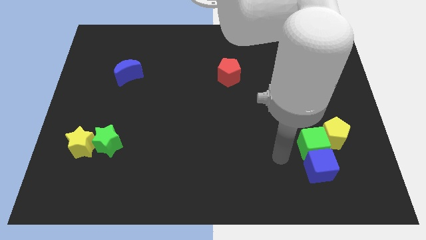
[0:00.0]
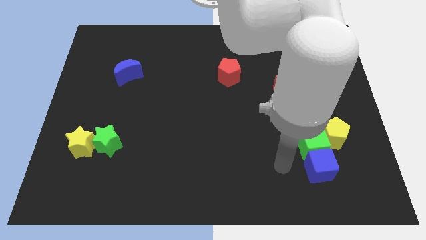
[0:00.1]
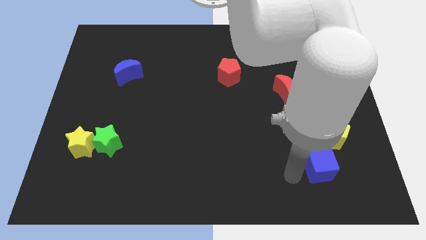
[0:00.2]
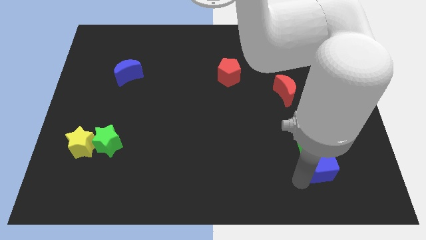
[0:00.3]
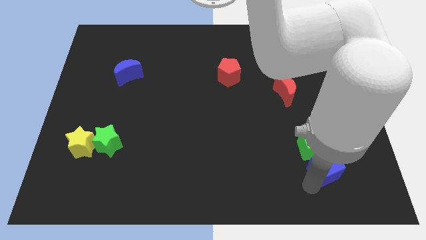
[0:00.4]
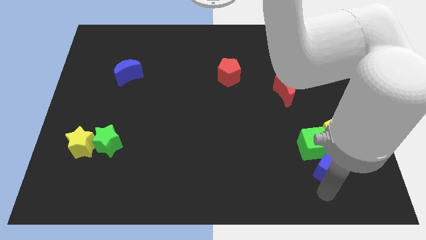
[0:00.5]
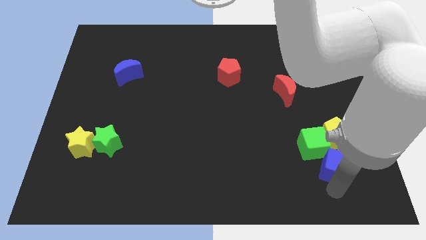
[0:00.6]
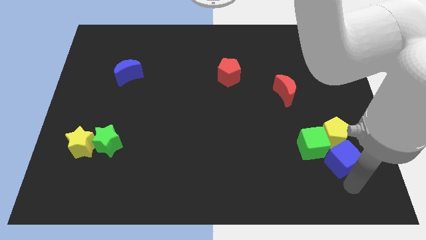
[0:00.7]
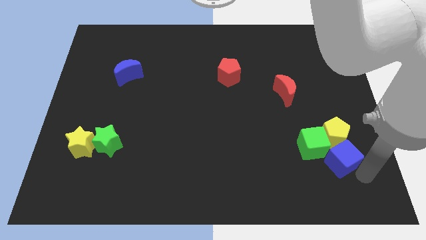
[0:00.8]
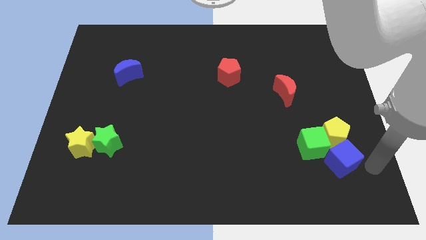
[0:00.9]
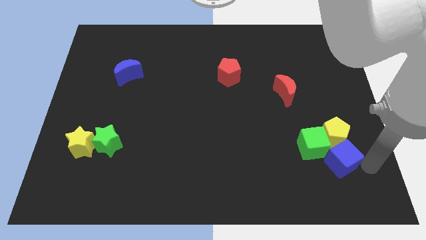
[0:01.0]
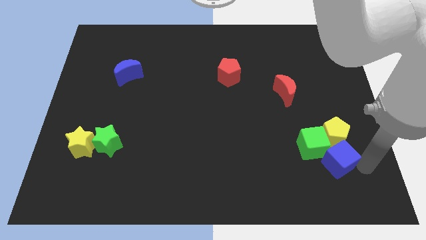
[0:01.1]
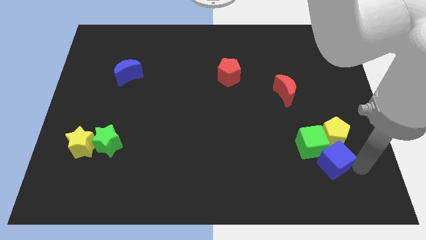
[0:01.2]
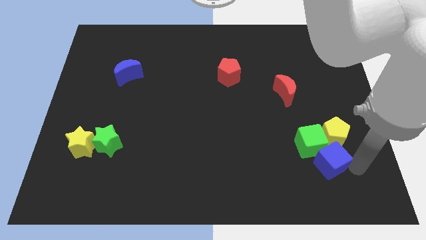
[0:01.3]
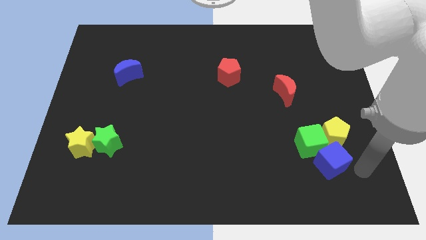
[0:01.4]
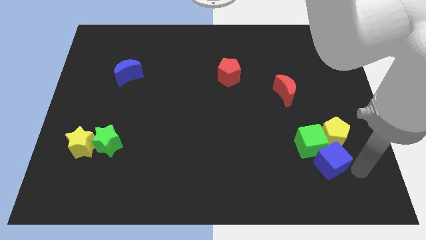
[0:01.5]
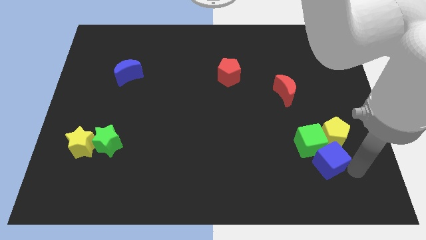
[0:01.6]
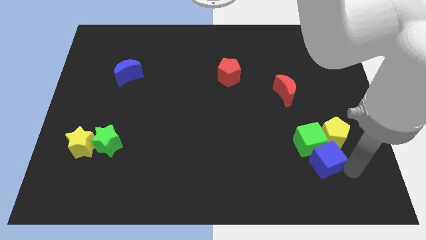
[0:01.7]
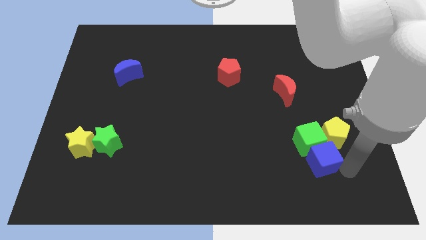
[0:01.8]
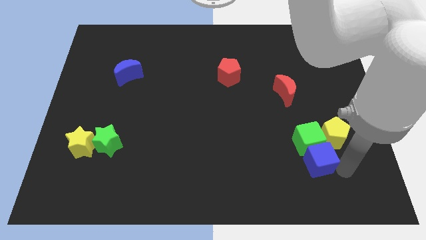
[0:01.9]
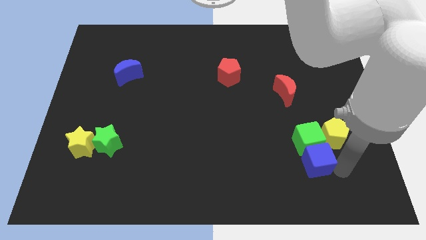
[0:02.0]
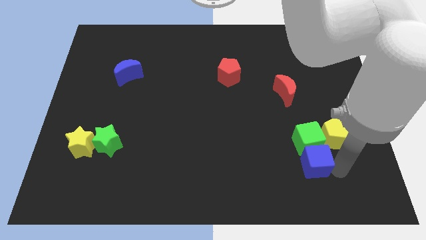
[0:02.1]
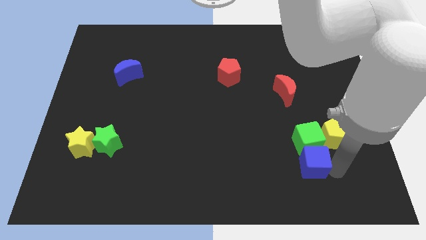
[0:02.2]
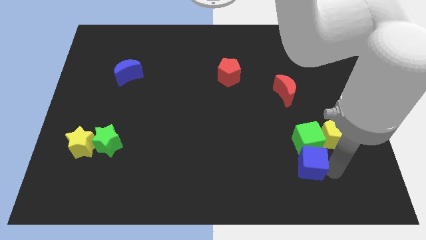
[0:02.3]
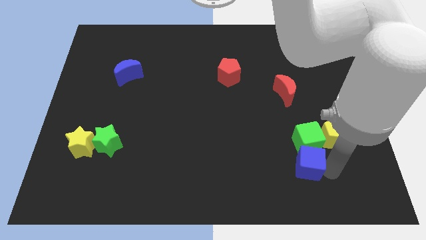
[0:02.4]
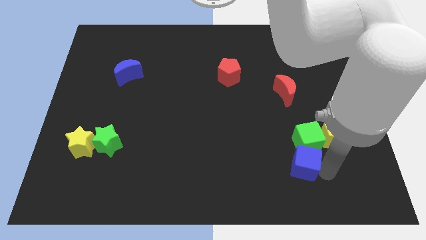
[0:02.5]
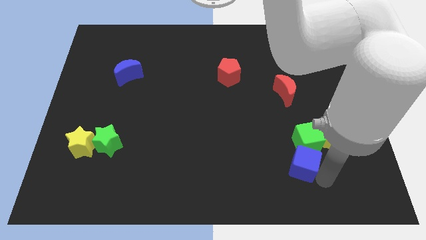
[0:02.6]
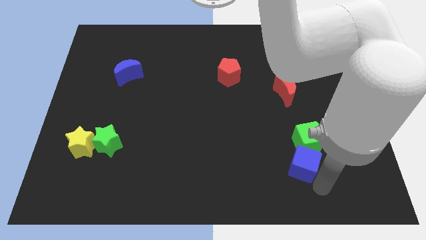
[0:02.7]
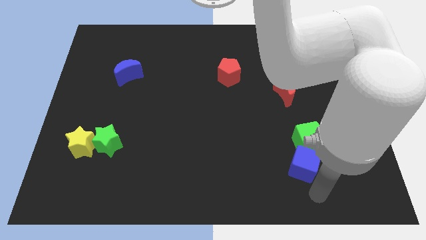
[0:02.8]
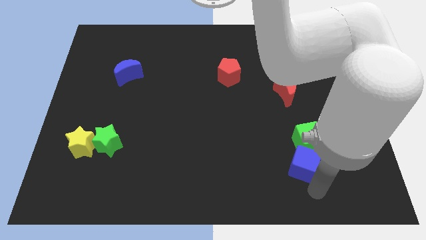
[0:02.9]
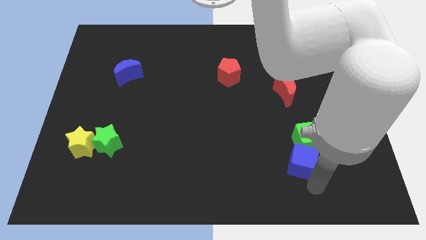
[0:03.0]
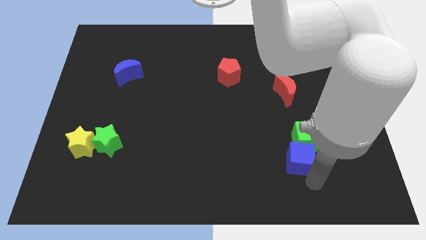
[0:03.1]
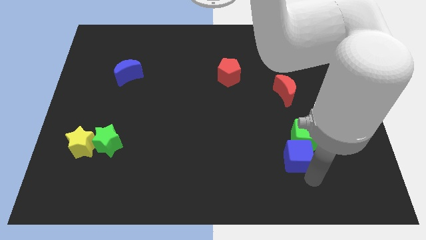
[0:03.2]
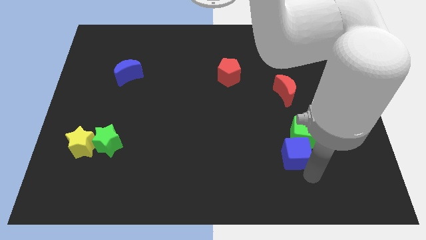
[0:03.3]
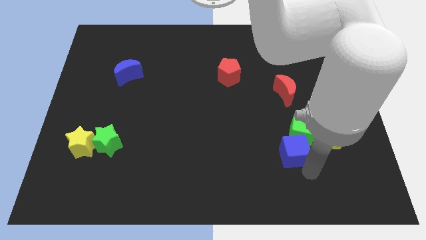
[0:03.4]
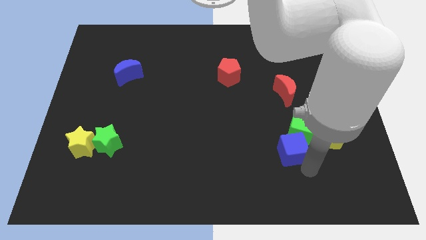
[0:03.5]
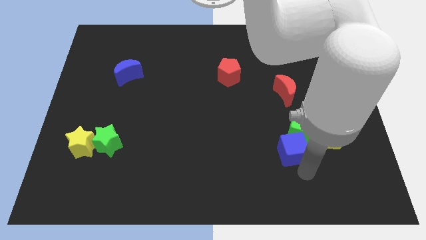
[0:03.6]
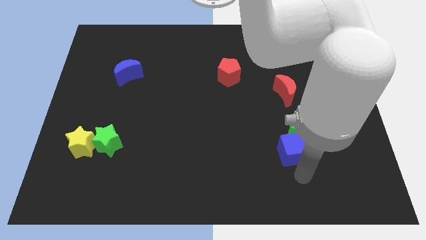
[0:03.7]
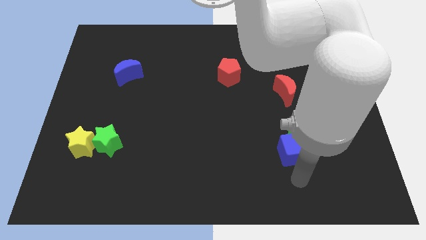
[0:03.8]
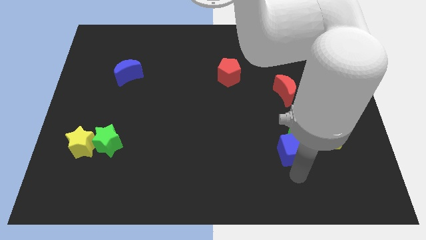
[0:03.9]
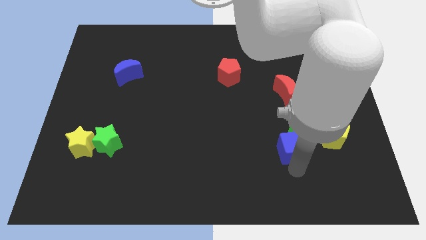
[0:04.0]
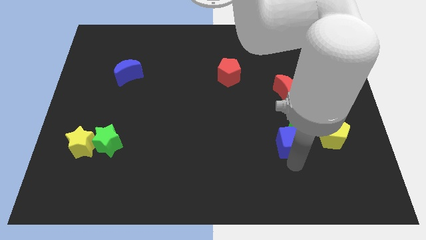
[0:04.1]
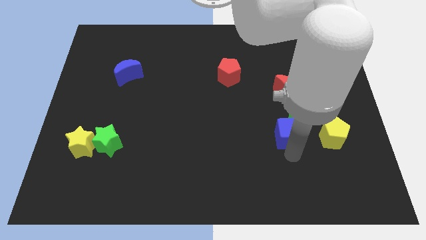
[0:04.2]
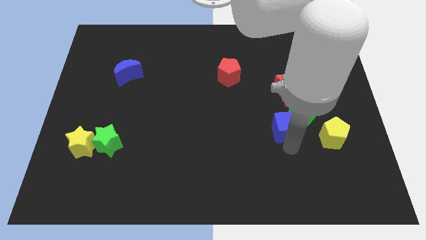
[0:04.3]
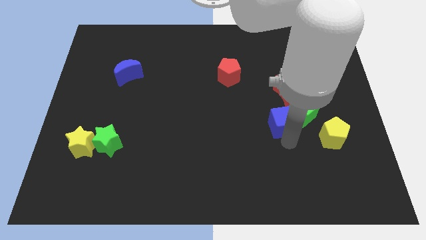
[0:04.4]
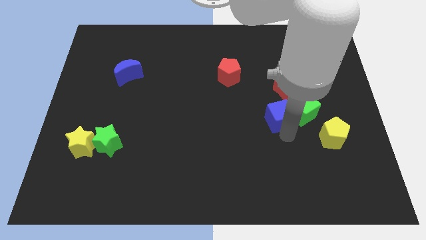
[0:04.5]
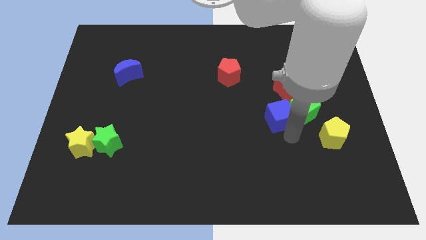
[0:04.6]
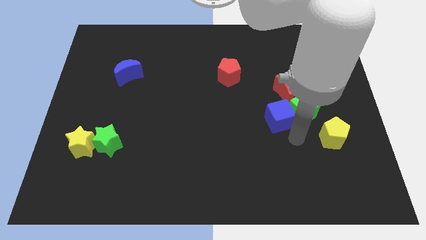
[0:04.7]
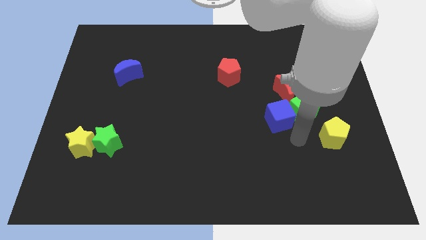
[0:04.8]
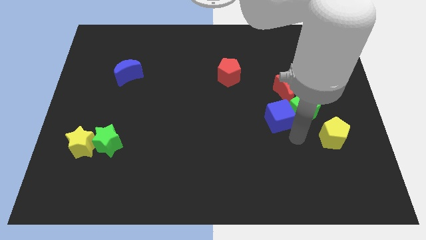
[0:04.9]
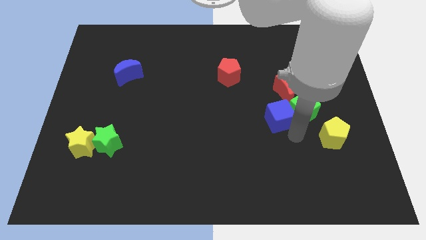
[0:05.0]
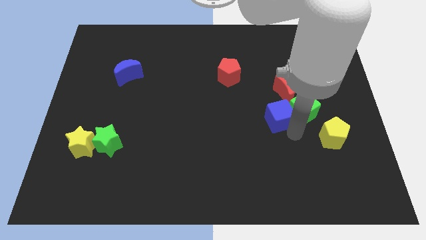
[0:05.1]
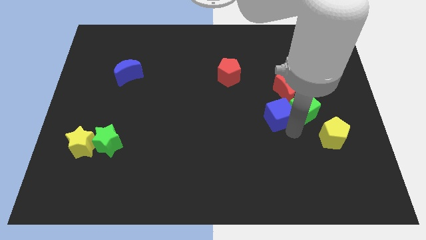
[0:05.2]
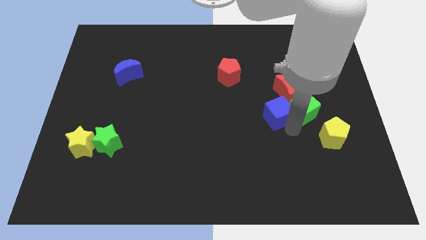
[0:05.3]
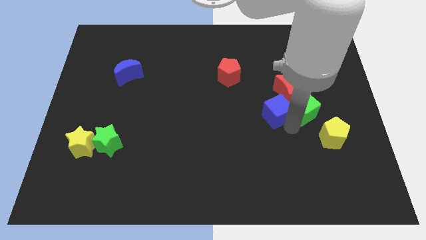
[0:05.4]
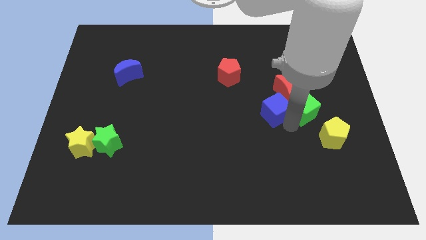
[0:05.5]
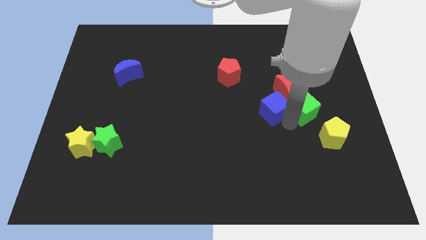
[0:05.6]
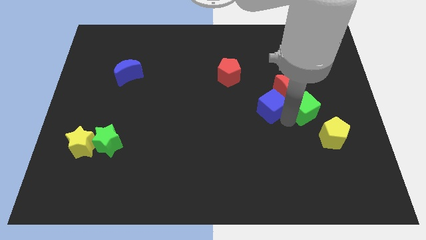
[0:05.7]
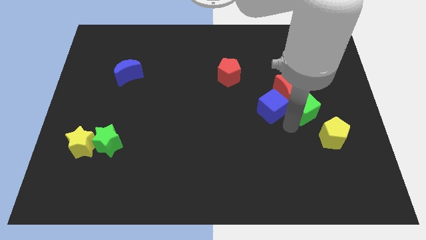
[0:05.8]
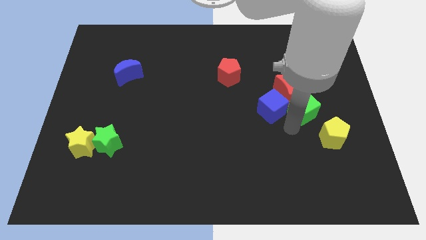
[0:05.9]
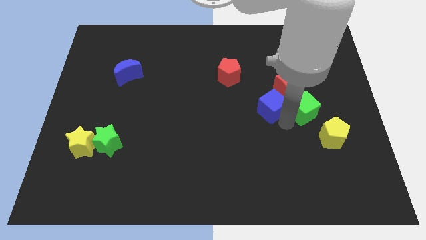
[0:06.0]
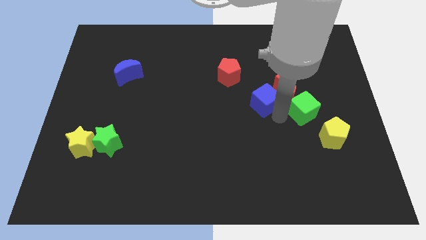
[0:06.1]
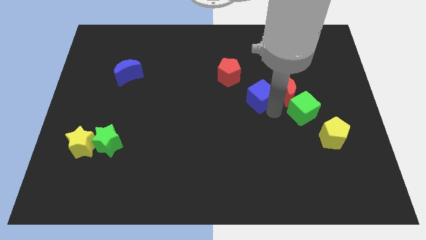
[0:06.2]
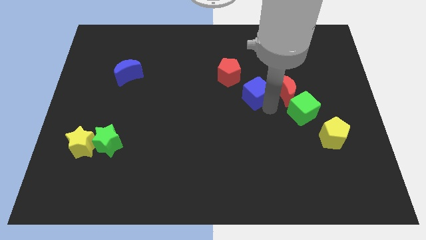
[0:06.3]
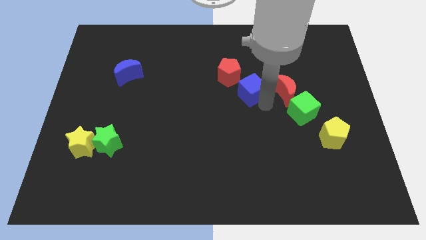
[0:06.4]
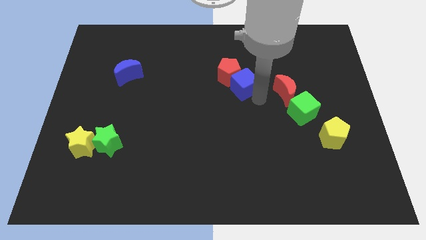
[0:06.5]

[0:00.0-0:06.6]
put the blue cube towards the red pentagon

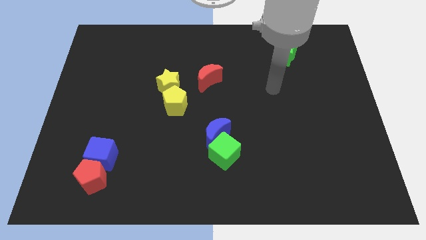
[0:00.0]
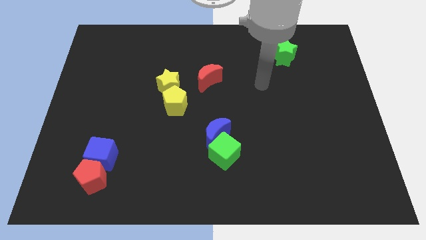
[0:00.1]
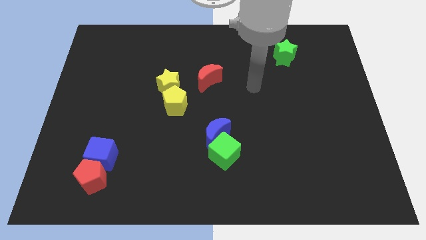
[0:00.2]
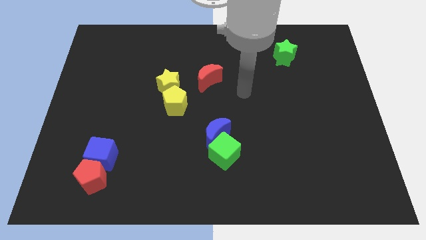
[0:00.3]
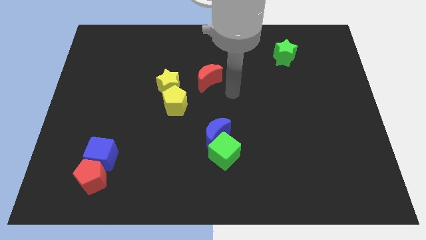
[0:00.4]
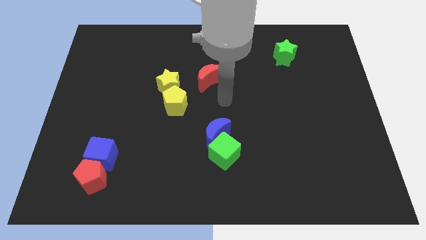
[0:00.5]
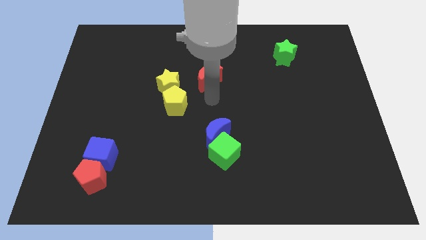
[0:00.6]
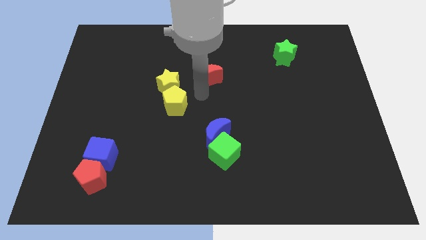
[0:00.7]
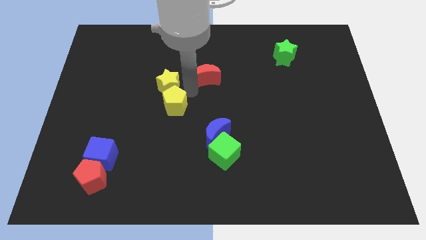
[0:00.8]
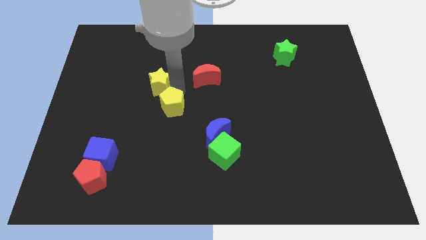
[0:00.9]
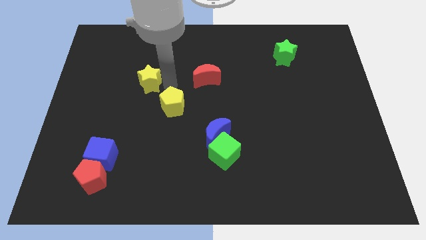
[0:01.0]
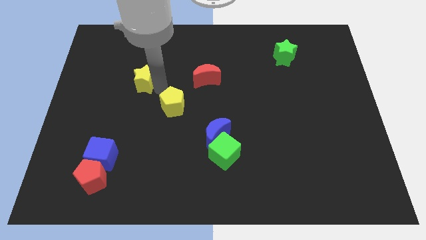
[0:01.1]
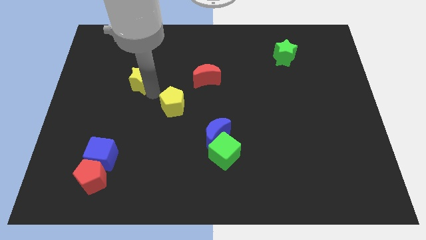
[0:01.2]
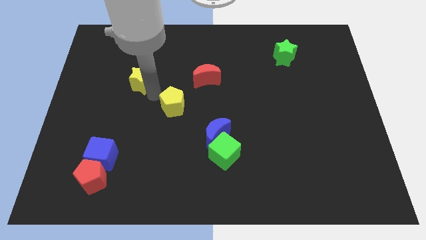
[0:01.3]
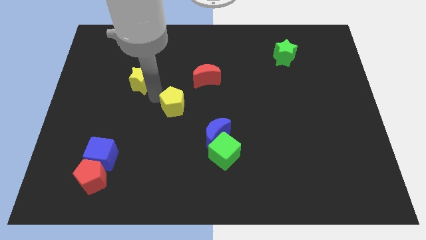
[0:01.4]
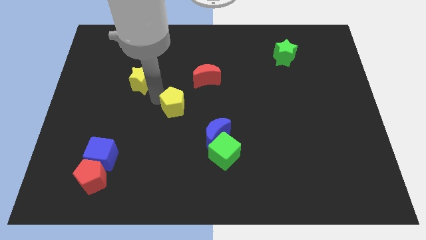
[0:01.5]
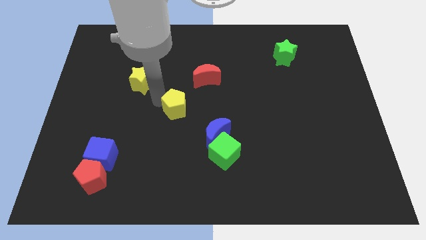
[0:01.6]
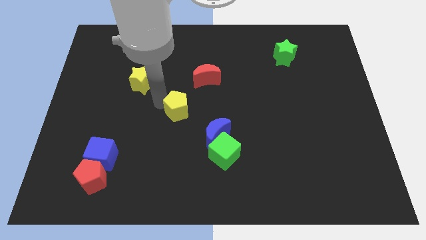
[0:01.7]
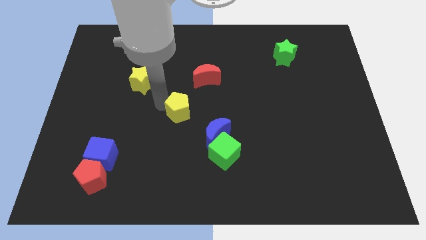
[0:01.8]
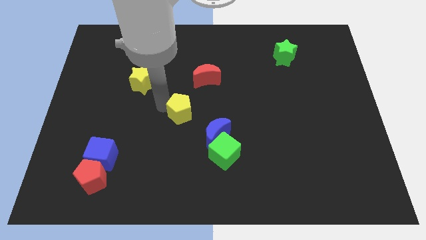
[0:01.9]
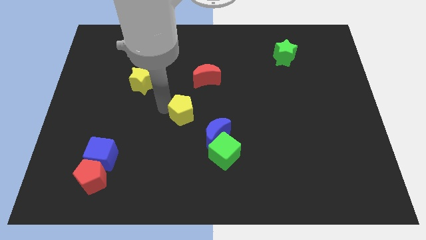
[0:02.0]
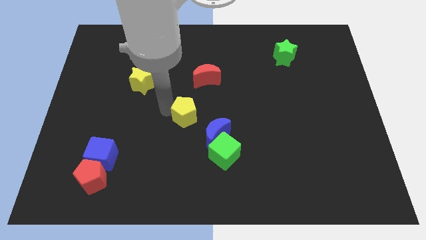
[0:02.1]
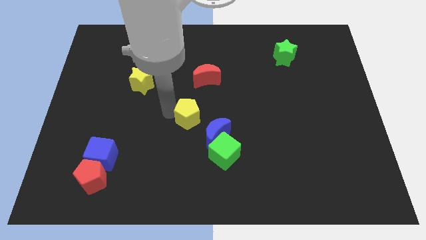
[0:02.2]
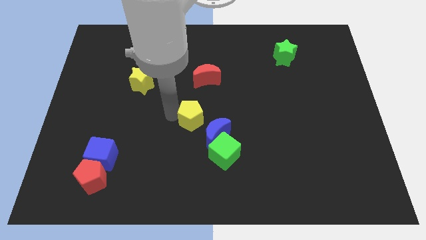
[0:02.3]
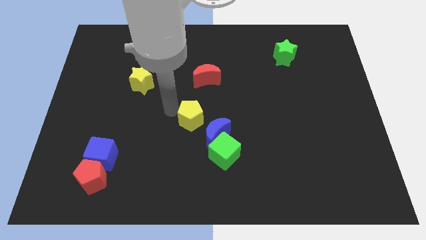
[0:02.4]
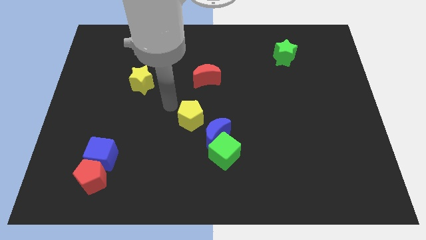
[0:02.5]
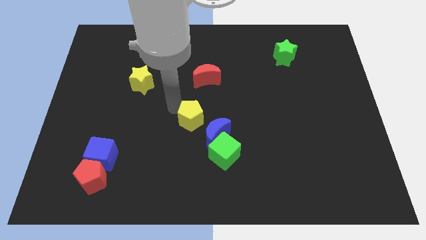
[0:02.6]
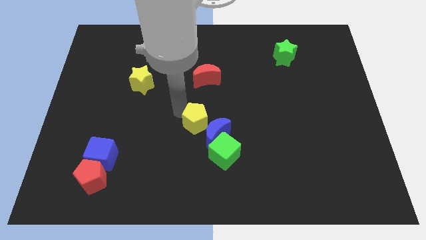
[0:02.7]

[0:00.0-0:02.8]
move the yellow pentagon next to the blue moon
